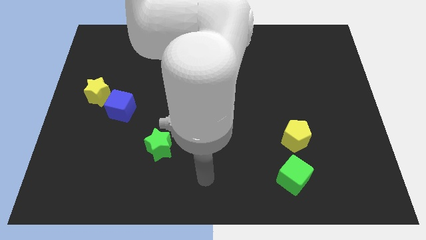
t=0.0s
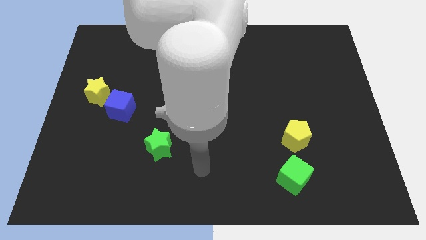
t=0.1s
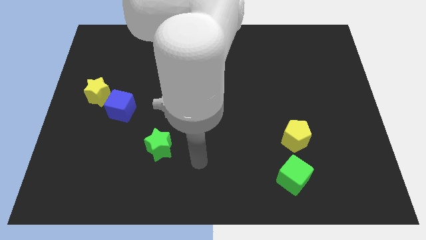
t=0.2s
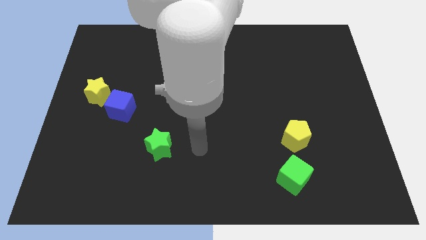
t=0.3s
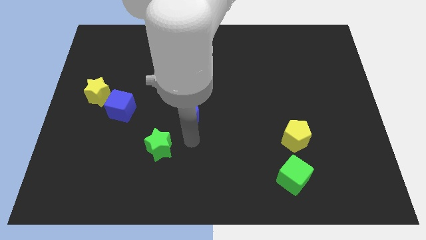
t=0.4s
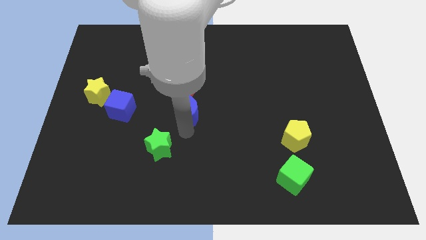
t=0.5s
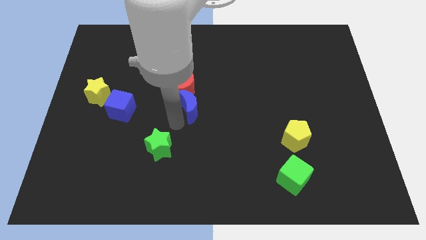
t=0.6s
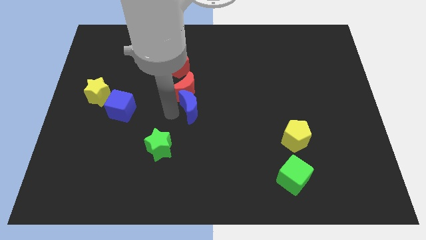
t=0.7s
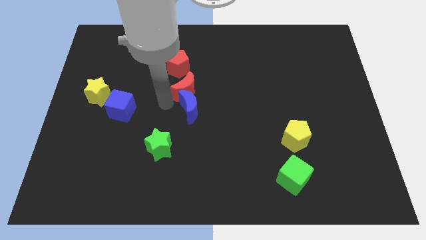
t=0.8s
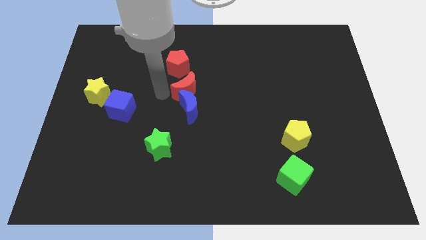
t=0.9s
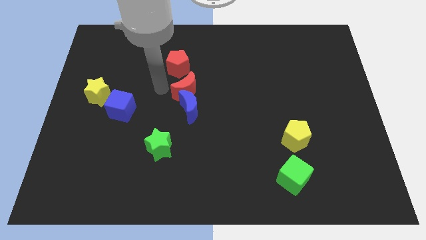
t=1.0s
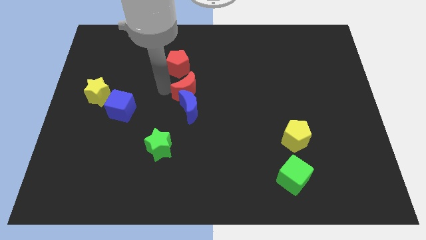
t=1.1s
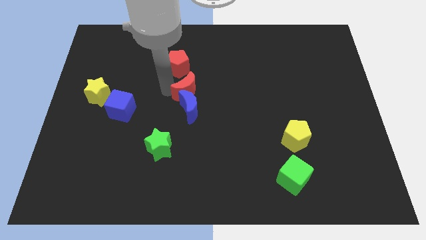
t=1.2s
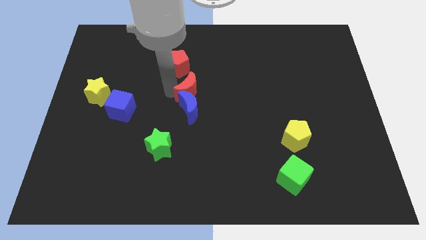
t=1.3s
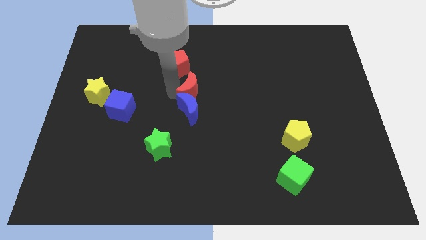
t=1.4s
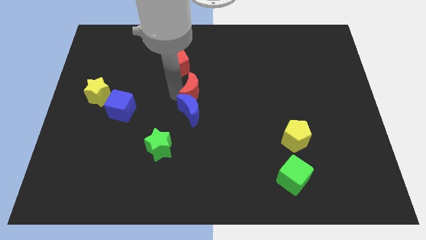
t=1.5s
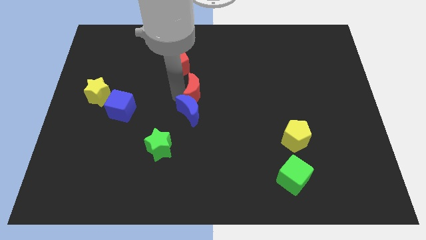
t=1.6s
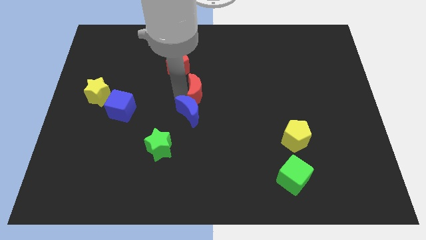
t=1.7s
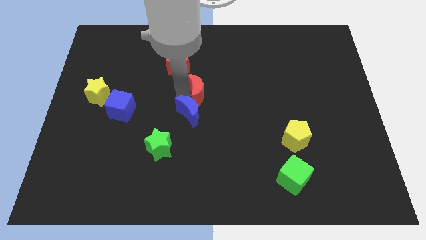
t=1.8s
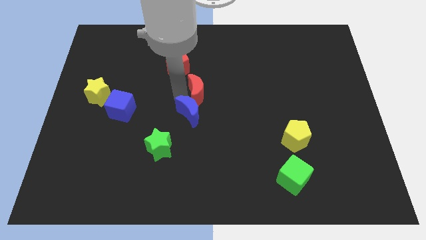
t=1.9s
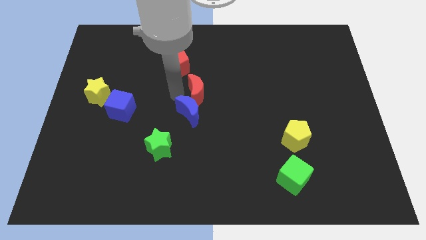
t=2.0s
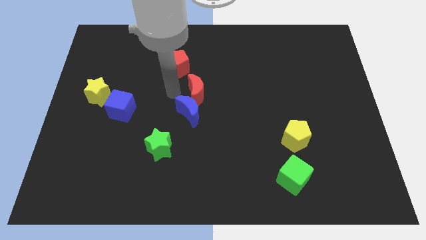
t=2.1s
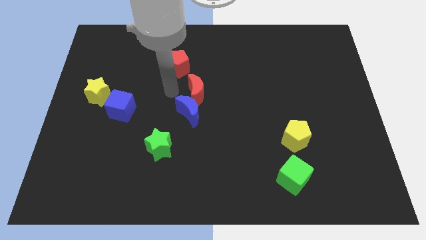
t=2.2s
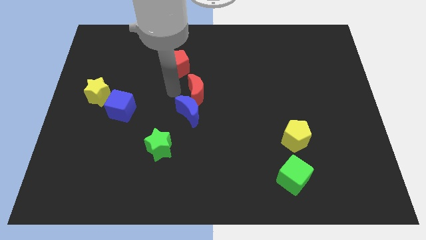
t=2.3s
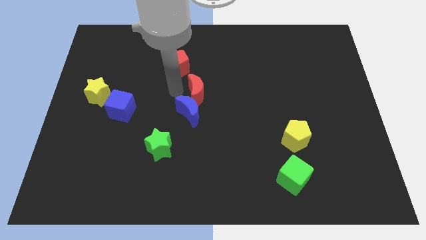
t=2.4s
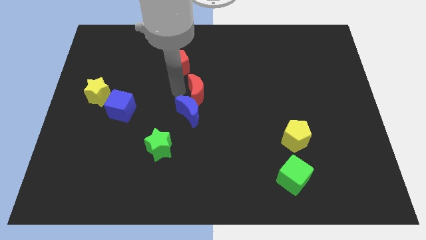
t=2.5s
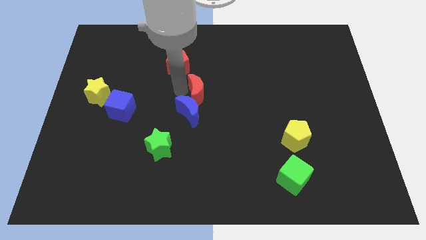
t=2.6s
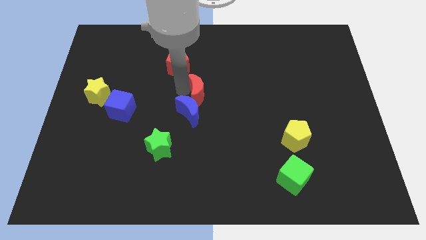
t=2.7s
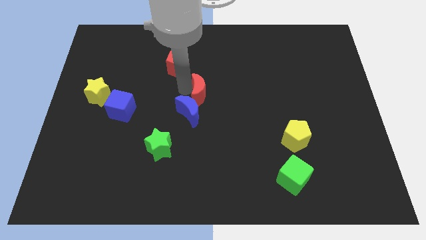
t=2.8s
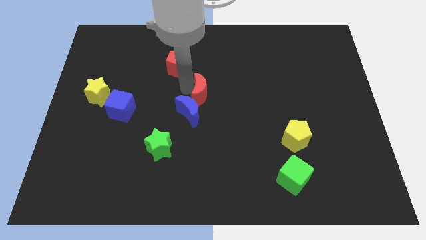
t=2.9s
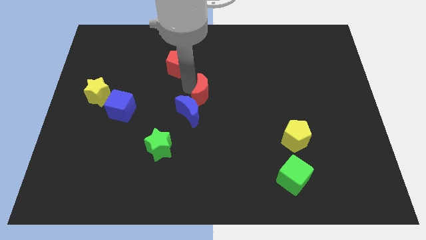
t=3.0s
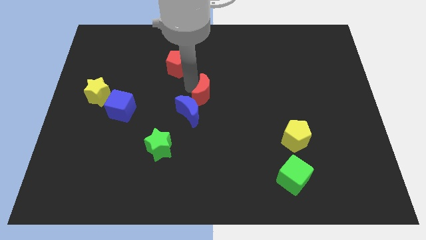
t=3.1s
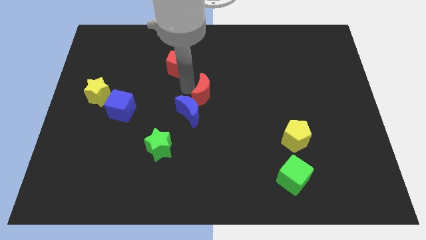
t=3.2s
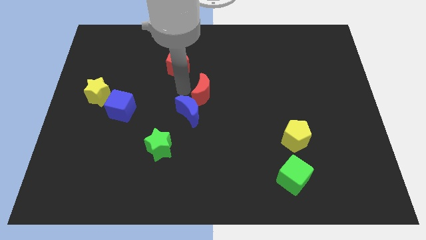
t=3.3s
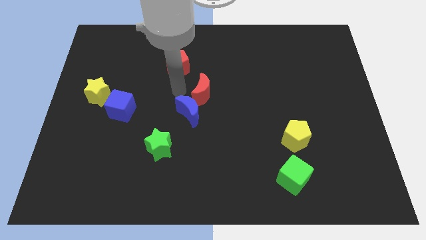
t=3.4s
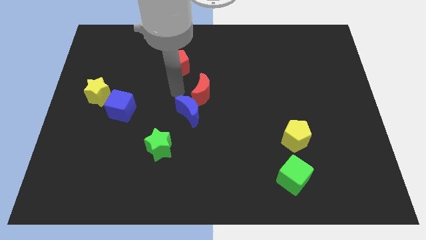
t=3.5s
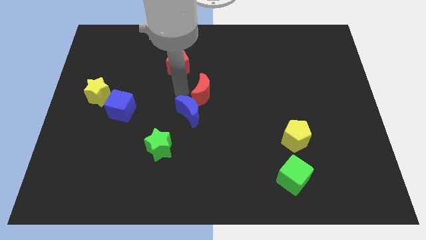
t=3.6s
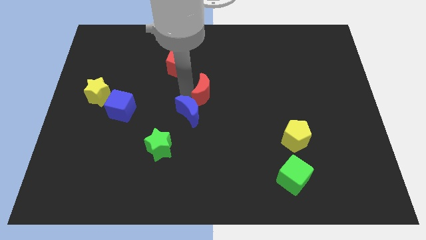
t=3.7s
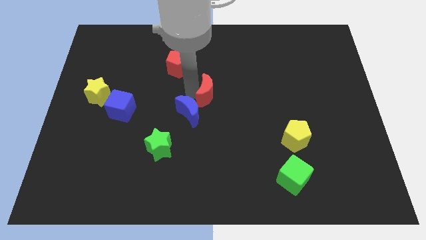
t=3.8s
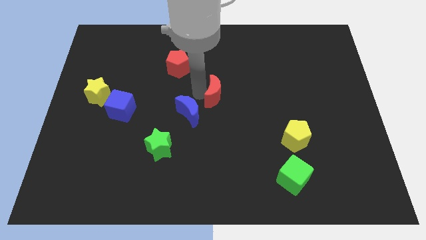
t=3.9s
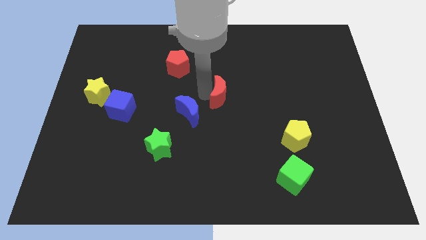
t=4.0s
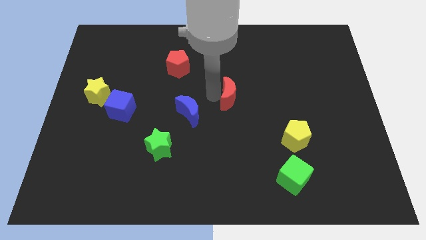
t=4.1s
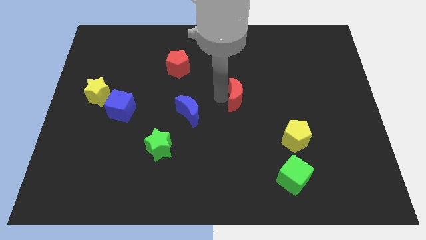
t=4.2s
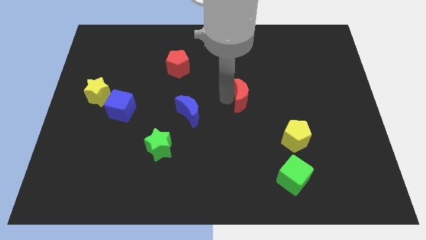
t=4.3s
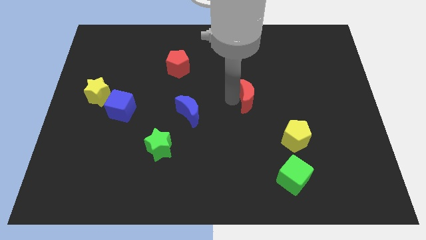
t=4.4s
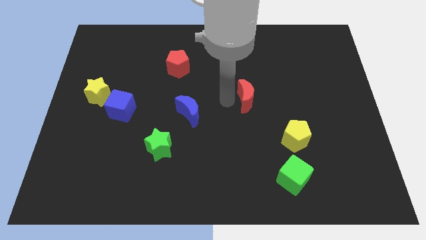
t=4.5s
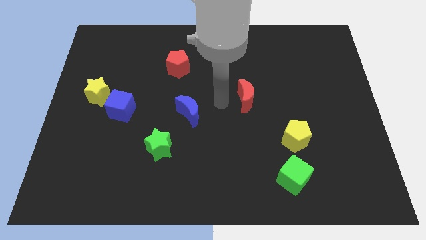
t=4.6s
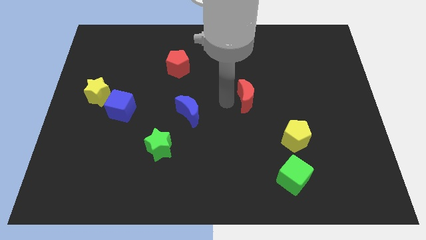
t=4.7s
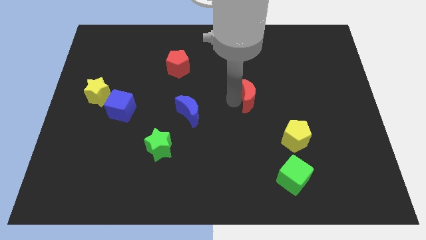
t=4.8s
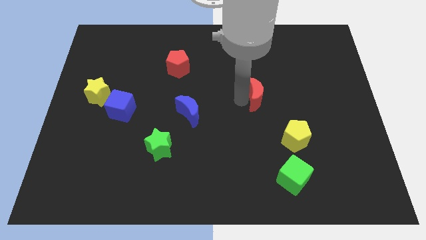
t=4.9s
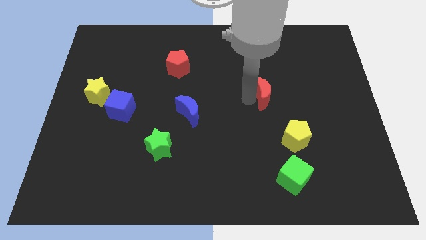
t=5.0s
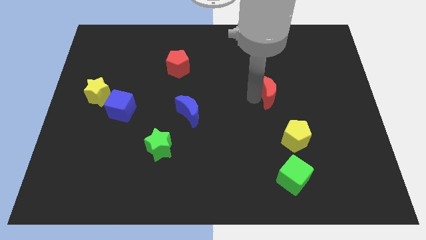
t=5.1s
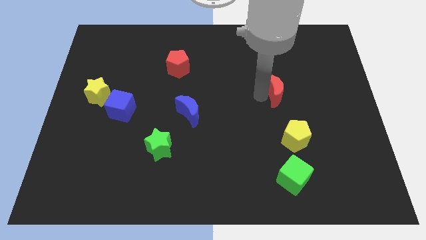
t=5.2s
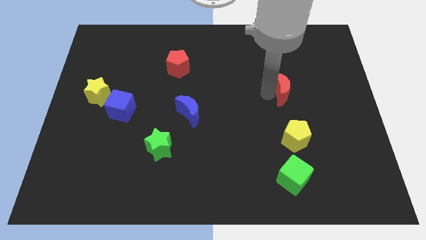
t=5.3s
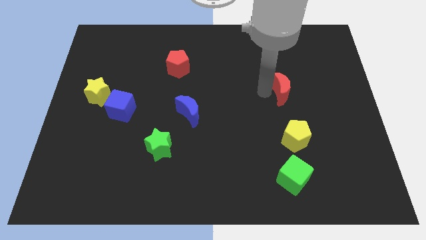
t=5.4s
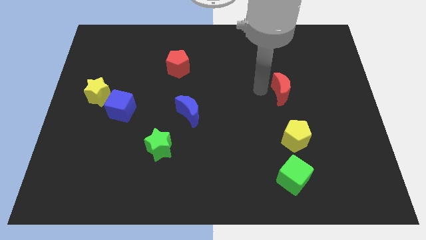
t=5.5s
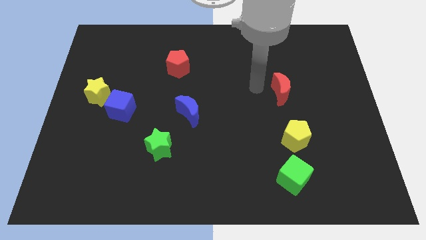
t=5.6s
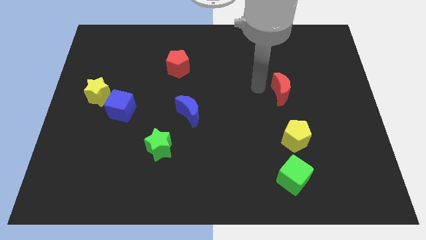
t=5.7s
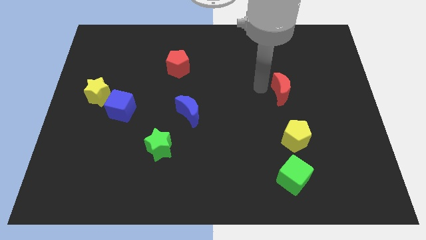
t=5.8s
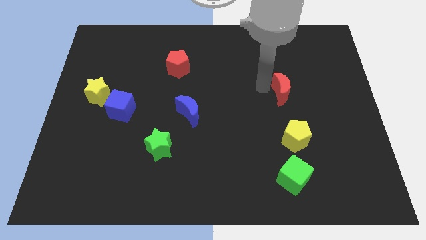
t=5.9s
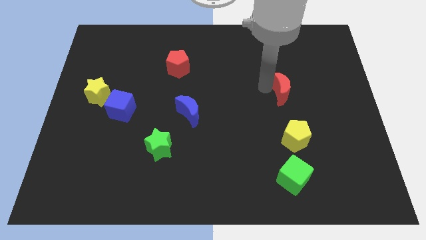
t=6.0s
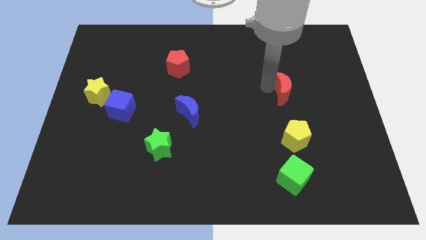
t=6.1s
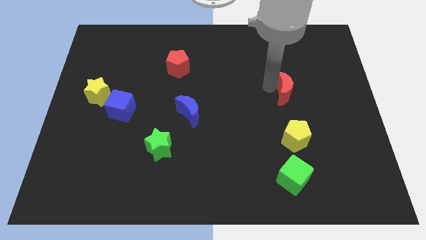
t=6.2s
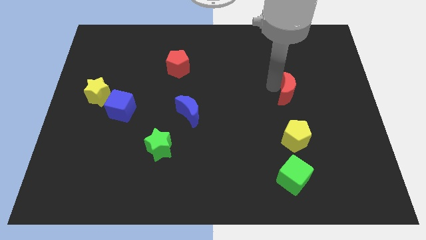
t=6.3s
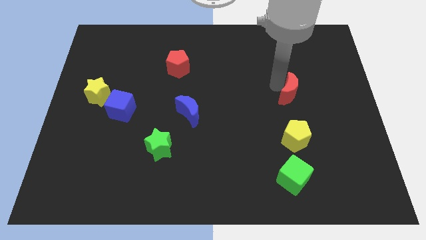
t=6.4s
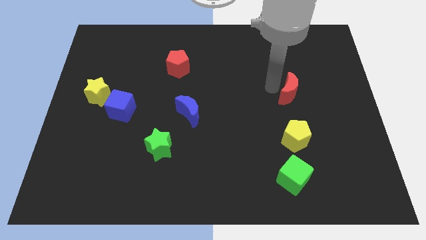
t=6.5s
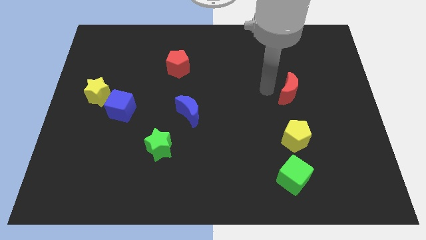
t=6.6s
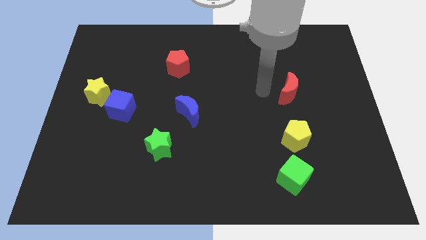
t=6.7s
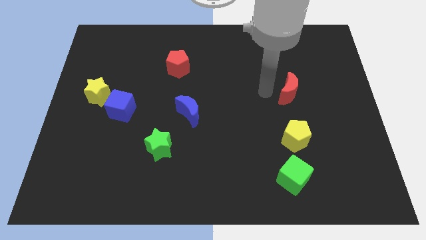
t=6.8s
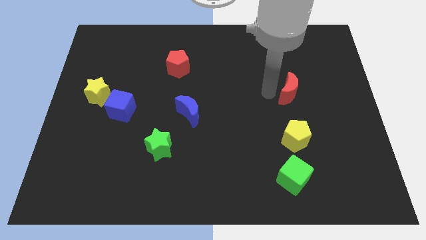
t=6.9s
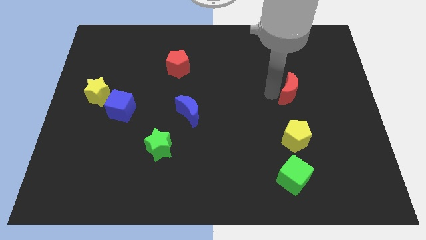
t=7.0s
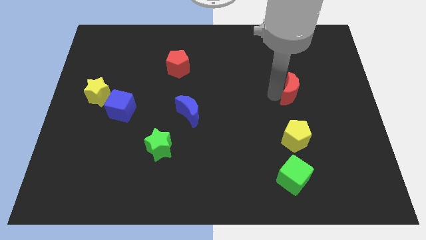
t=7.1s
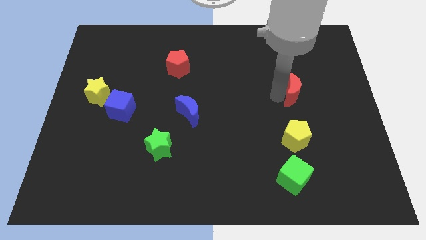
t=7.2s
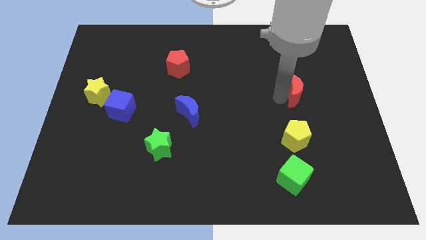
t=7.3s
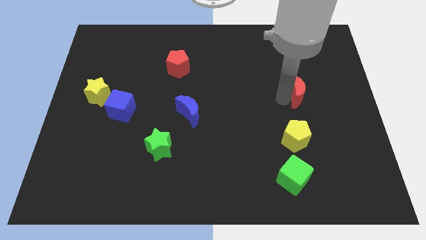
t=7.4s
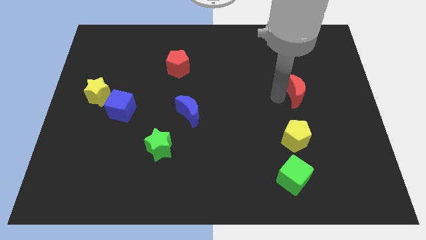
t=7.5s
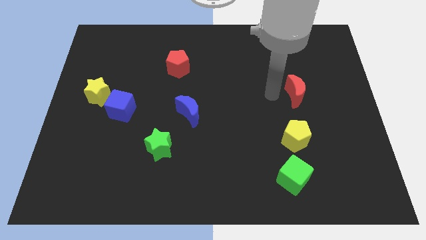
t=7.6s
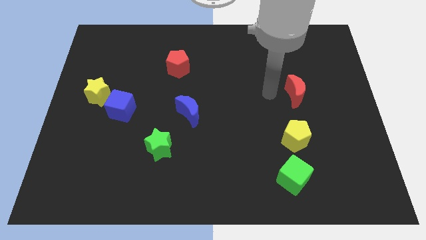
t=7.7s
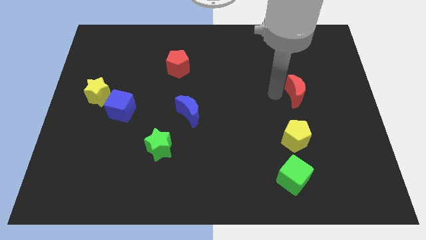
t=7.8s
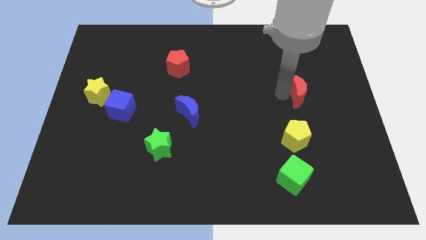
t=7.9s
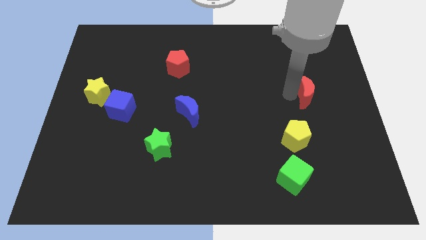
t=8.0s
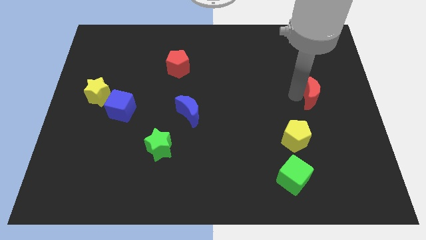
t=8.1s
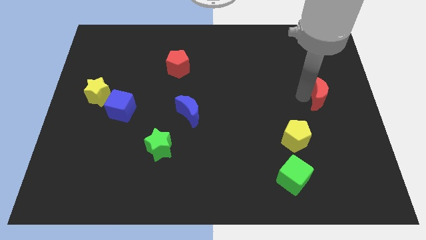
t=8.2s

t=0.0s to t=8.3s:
put the red moon to the center right
